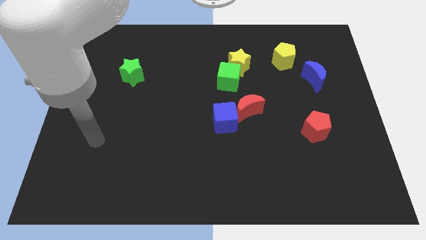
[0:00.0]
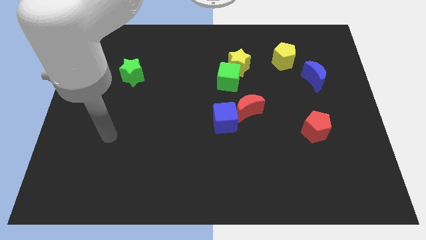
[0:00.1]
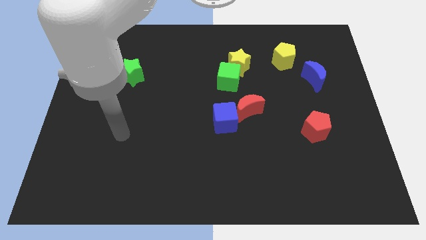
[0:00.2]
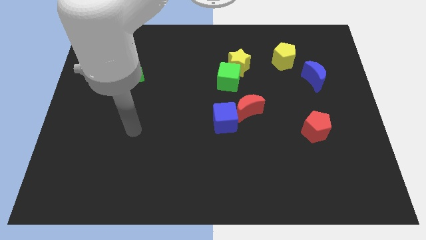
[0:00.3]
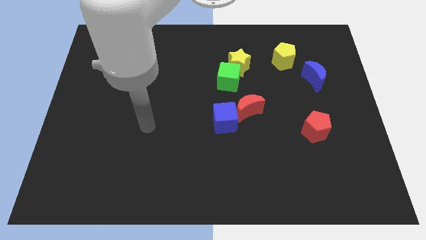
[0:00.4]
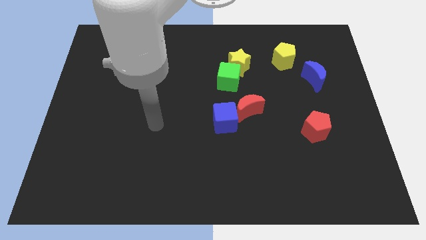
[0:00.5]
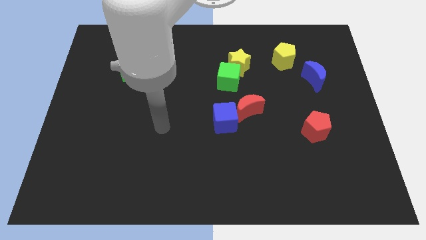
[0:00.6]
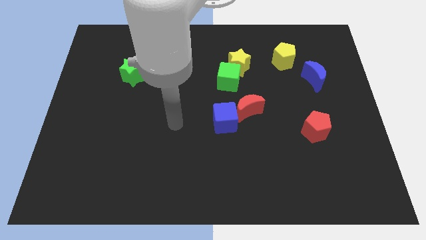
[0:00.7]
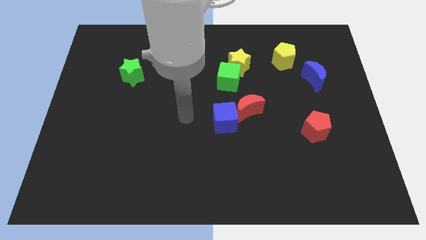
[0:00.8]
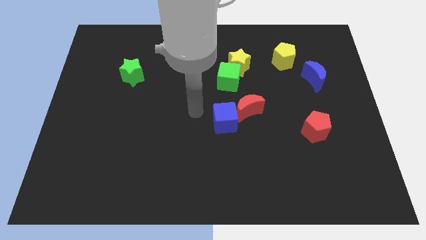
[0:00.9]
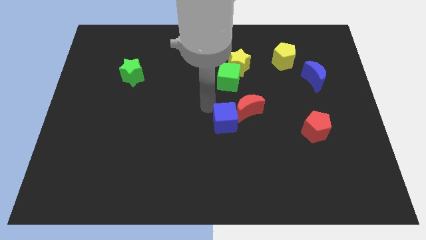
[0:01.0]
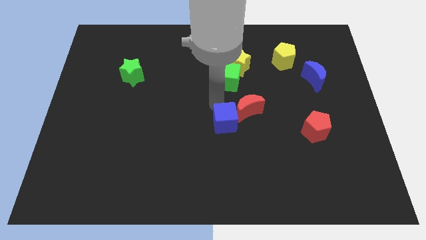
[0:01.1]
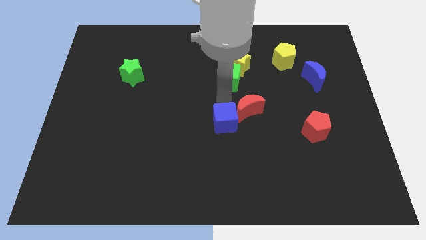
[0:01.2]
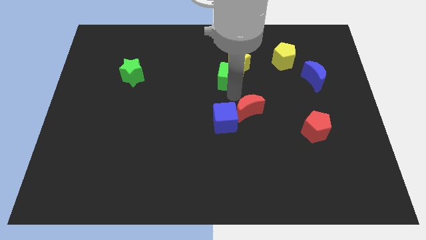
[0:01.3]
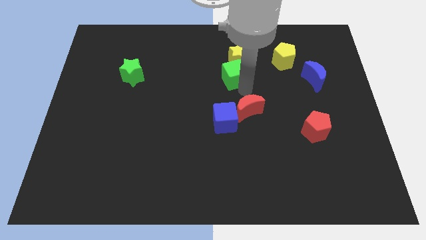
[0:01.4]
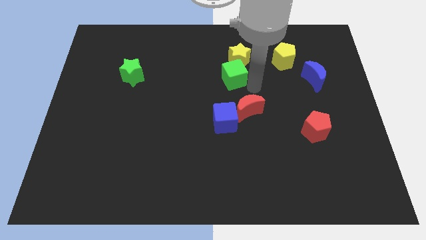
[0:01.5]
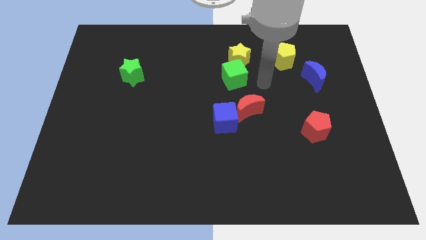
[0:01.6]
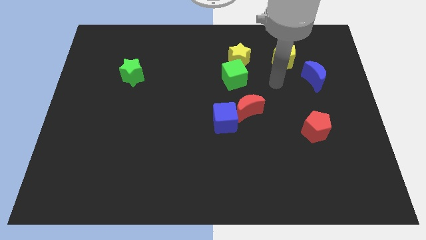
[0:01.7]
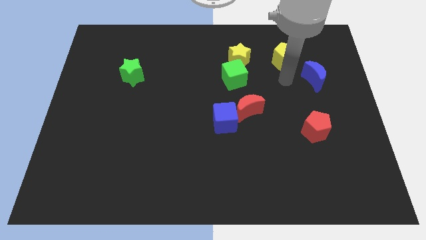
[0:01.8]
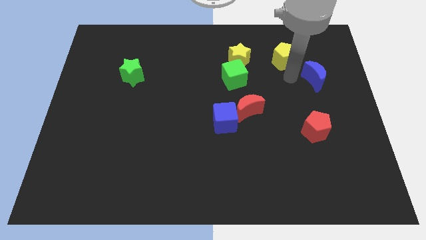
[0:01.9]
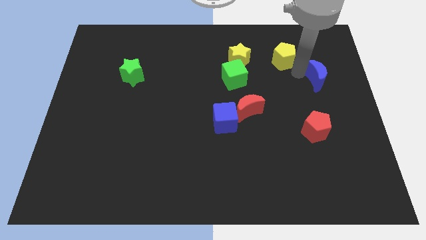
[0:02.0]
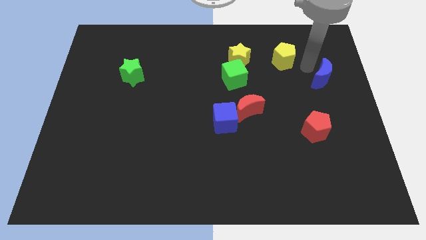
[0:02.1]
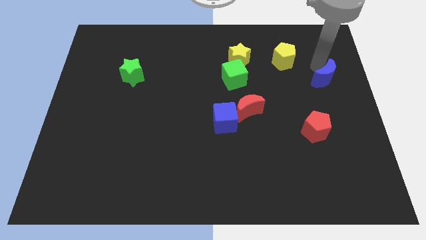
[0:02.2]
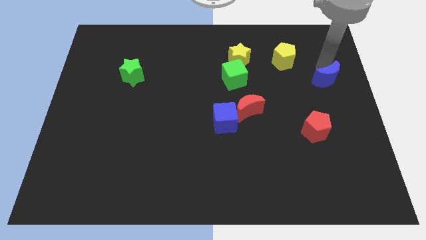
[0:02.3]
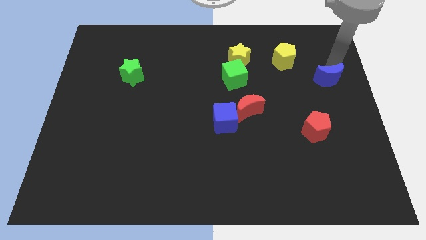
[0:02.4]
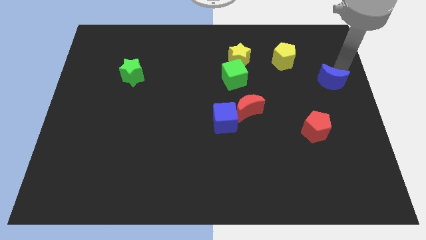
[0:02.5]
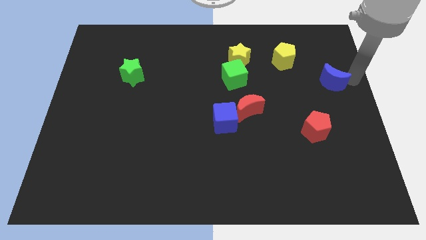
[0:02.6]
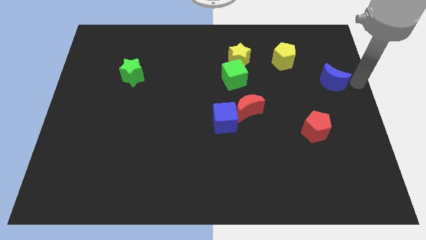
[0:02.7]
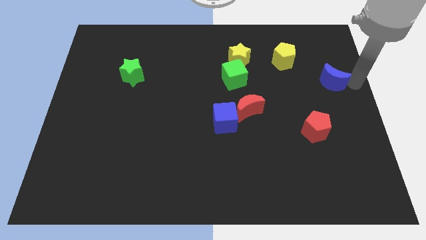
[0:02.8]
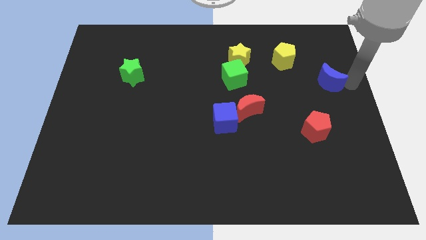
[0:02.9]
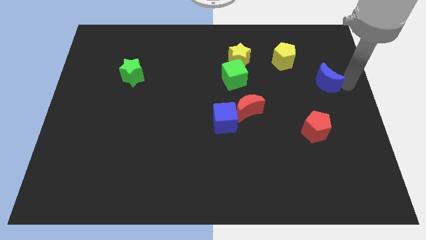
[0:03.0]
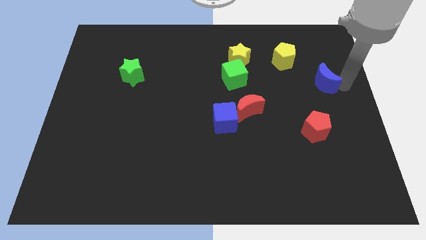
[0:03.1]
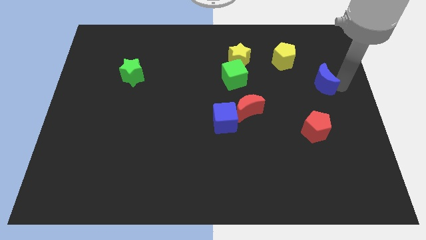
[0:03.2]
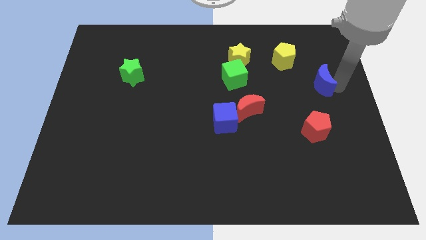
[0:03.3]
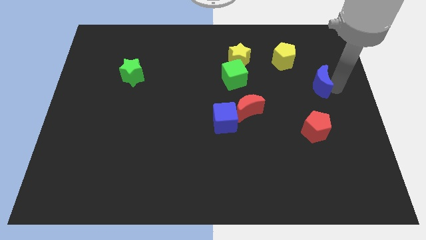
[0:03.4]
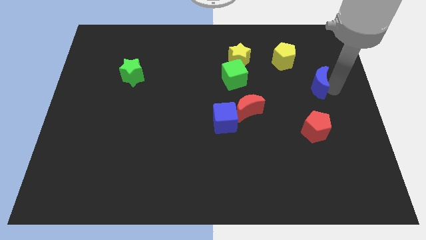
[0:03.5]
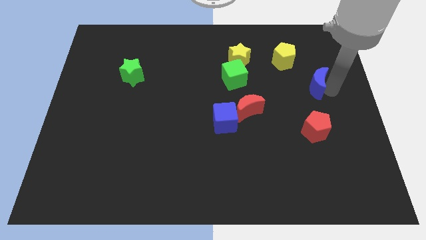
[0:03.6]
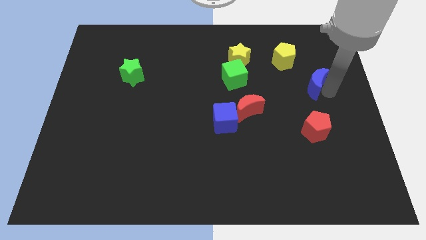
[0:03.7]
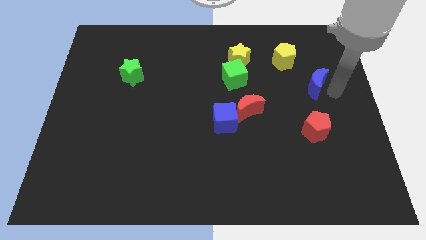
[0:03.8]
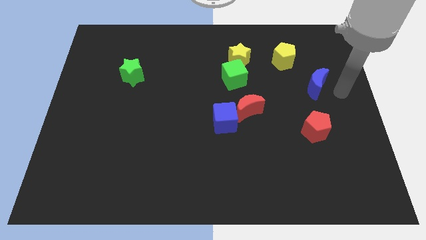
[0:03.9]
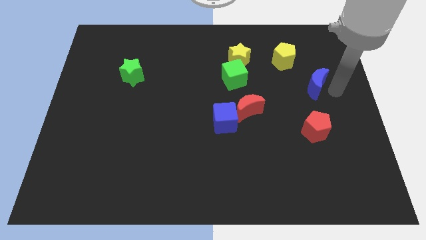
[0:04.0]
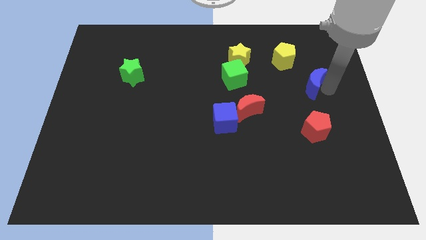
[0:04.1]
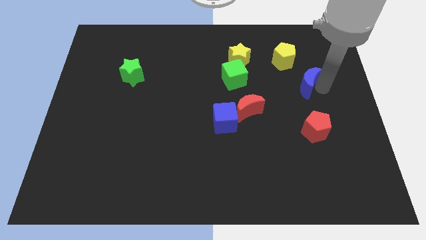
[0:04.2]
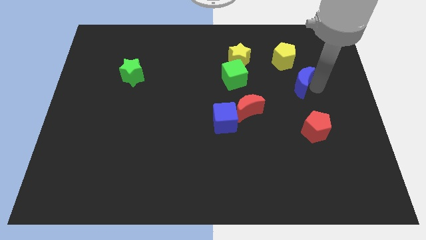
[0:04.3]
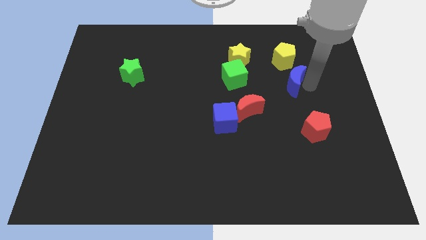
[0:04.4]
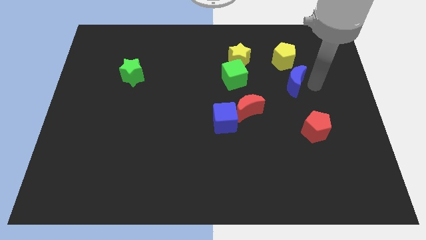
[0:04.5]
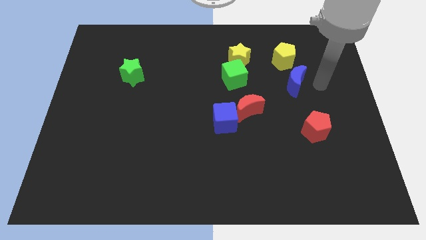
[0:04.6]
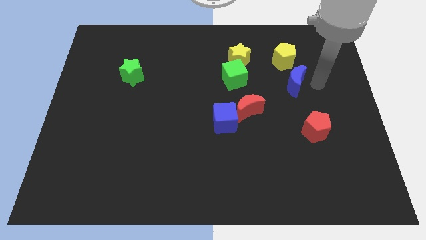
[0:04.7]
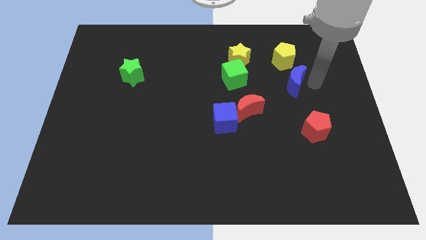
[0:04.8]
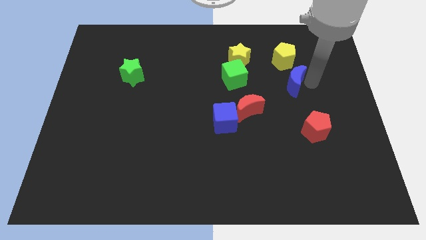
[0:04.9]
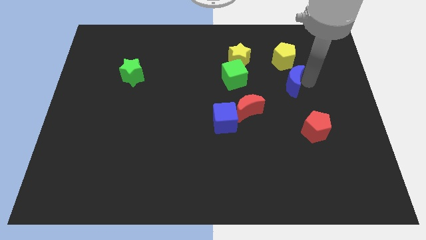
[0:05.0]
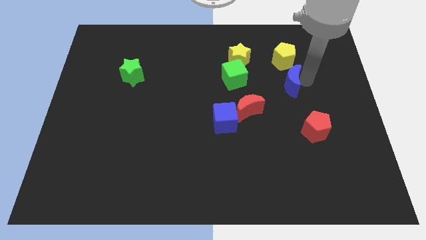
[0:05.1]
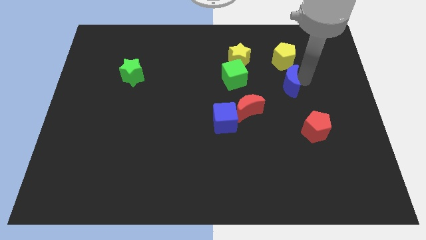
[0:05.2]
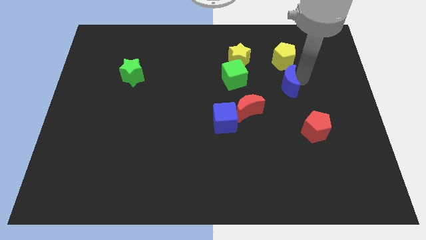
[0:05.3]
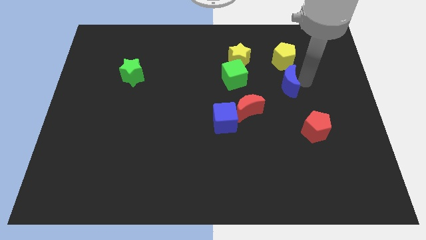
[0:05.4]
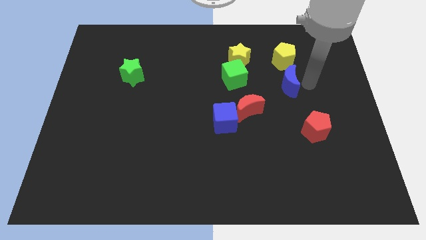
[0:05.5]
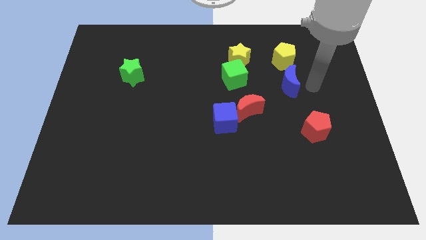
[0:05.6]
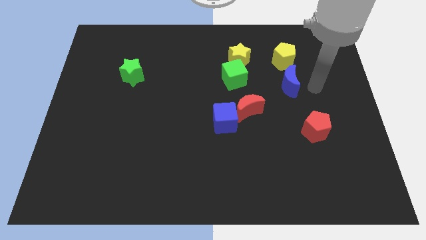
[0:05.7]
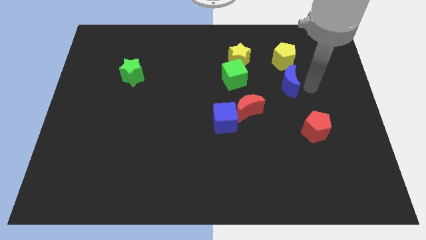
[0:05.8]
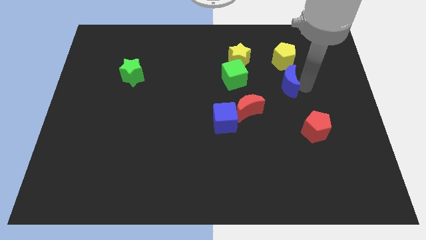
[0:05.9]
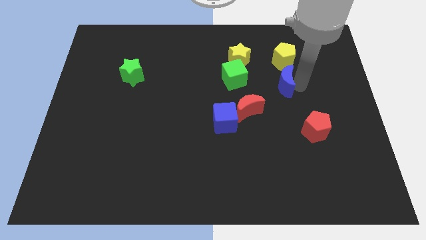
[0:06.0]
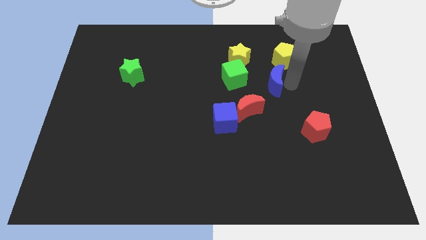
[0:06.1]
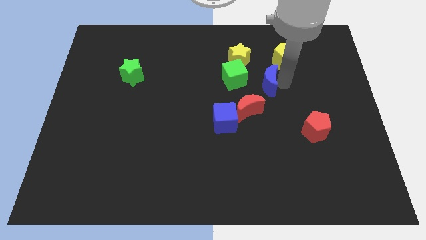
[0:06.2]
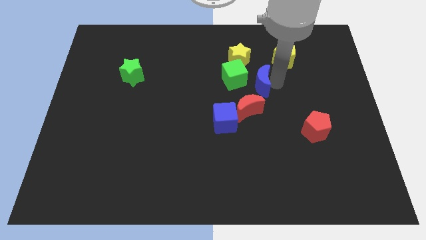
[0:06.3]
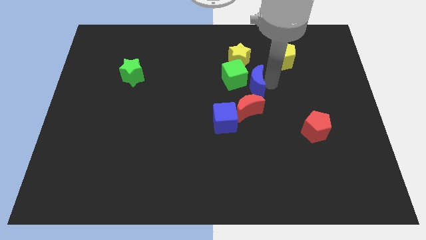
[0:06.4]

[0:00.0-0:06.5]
move the blue moon to the green cube
